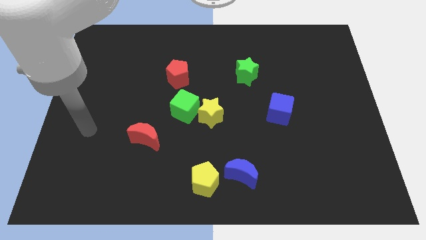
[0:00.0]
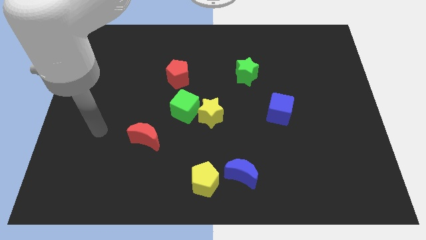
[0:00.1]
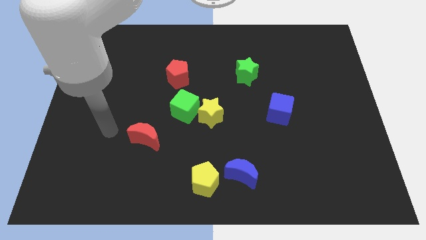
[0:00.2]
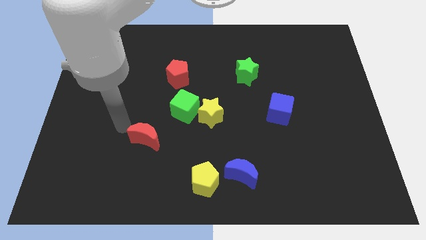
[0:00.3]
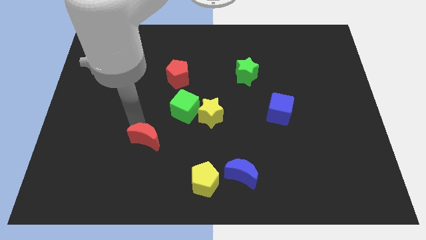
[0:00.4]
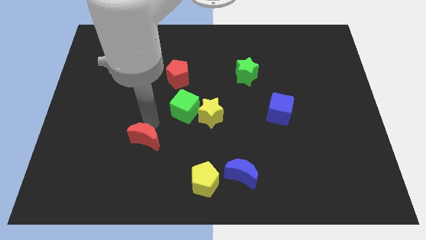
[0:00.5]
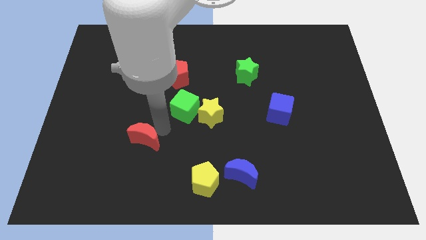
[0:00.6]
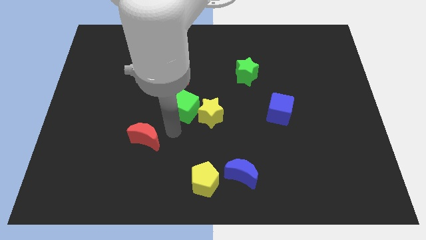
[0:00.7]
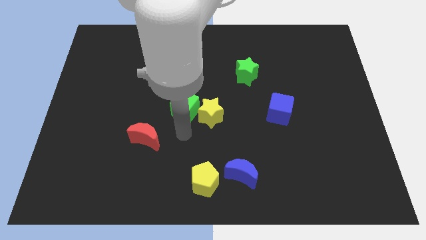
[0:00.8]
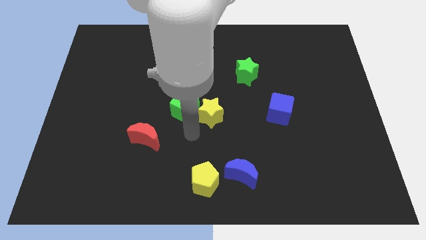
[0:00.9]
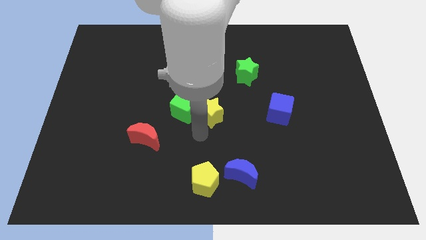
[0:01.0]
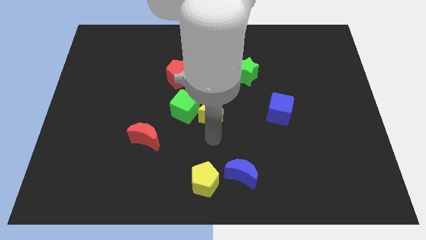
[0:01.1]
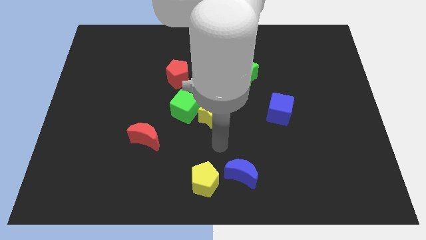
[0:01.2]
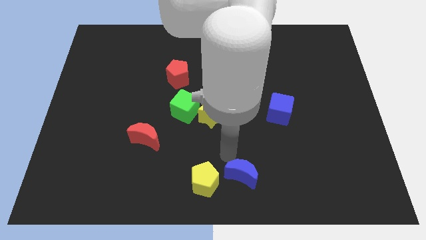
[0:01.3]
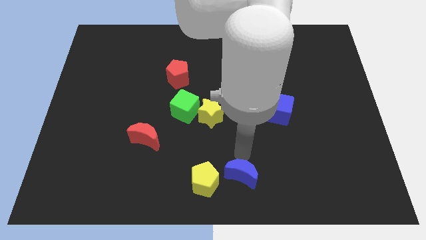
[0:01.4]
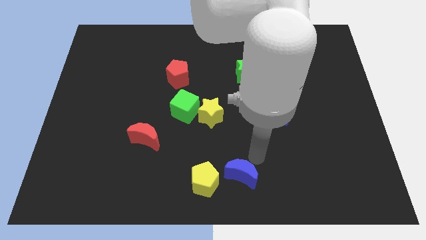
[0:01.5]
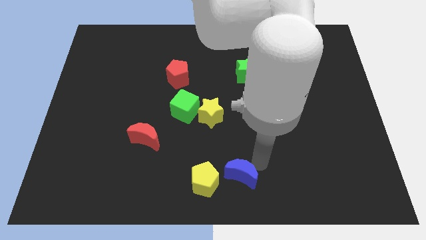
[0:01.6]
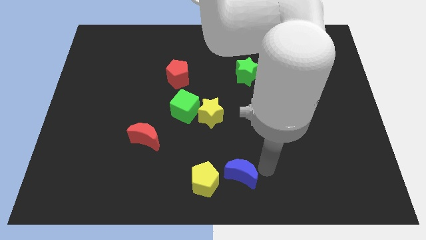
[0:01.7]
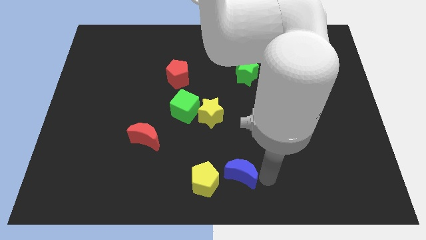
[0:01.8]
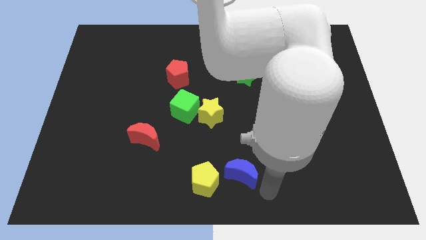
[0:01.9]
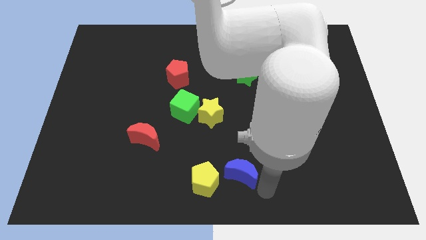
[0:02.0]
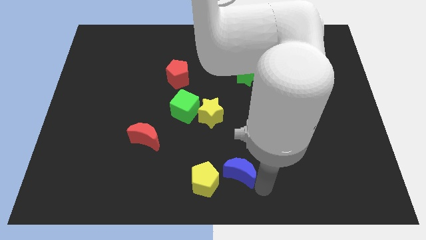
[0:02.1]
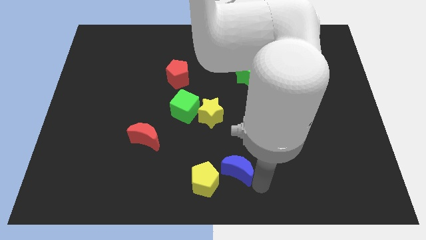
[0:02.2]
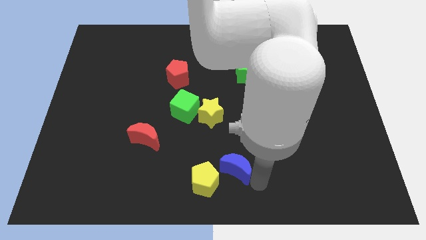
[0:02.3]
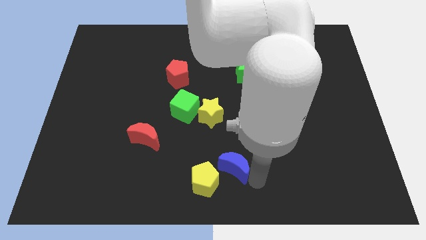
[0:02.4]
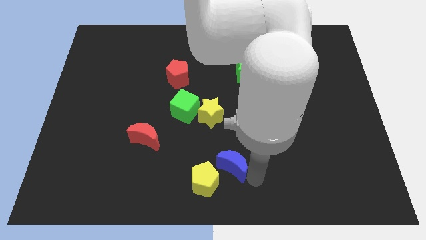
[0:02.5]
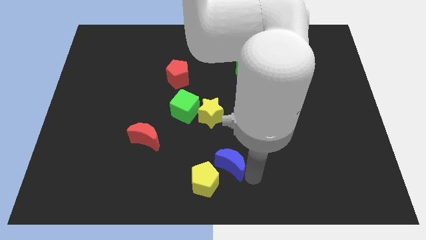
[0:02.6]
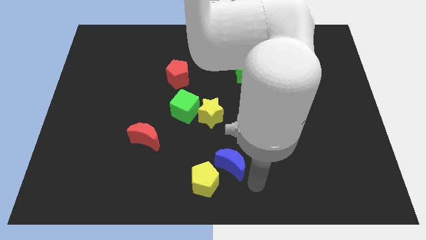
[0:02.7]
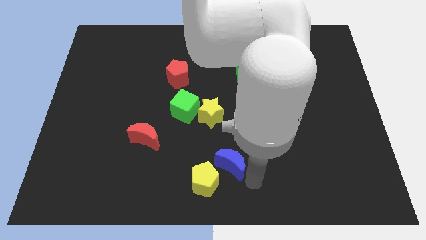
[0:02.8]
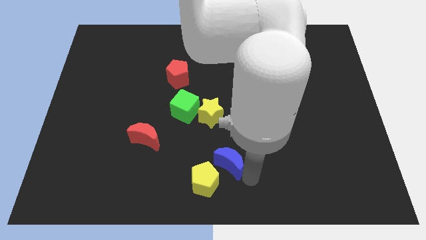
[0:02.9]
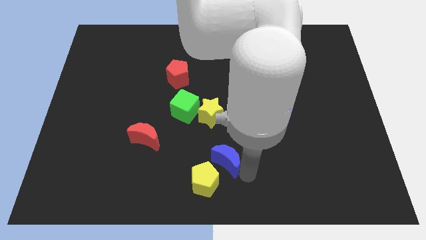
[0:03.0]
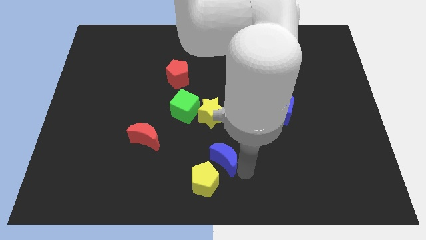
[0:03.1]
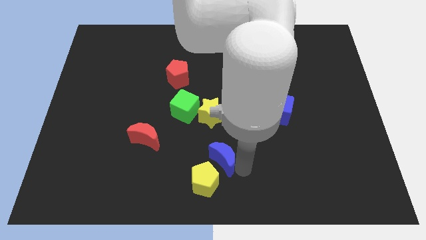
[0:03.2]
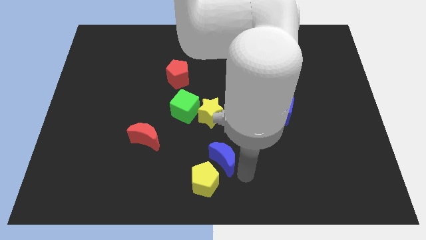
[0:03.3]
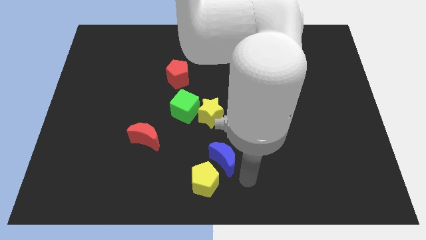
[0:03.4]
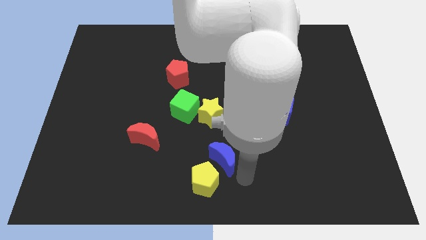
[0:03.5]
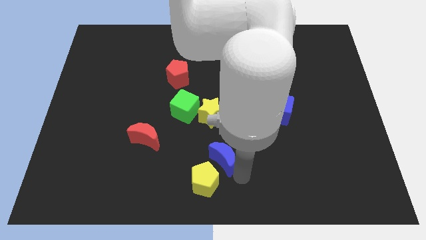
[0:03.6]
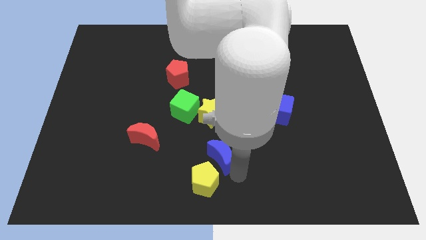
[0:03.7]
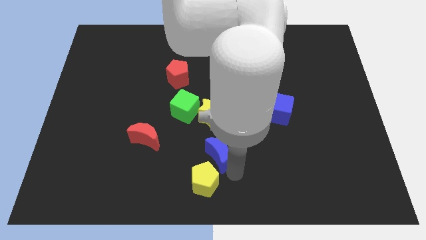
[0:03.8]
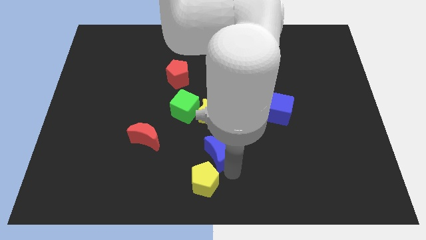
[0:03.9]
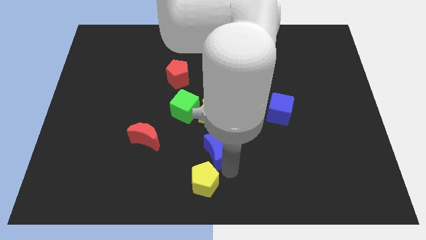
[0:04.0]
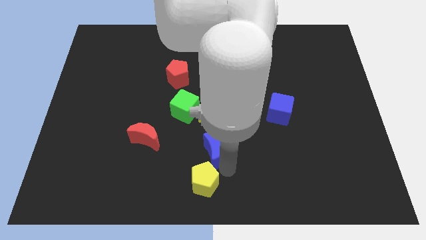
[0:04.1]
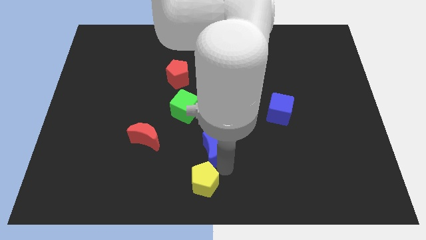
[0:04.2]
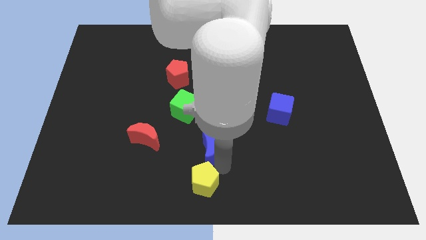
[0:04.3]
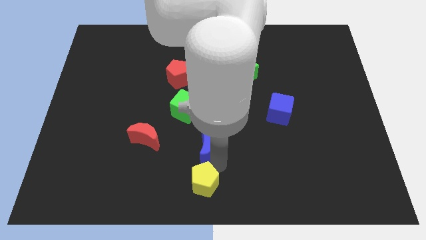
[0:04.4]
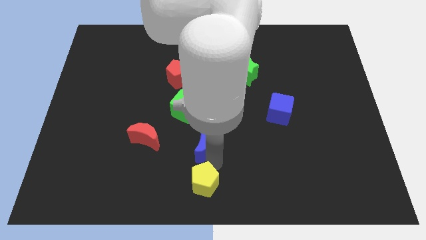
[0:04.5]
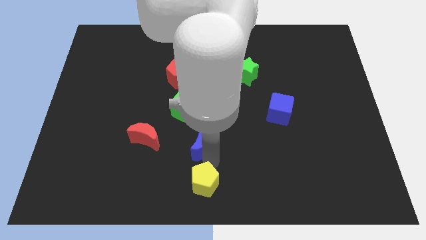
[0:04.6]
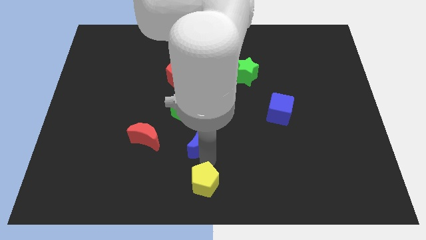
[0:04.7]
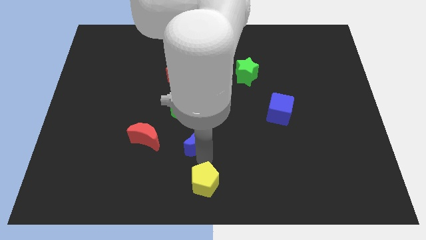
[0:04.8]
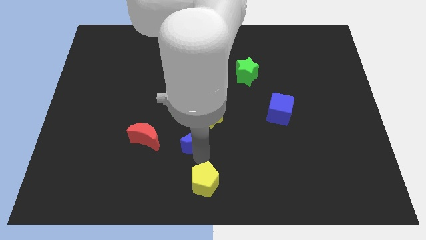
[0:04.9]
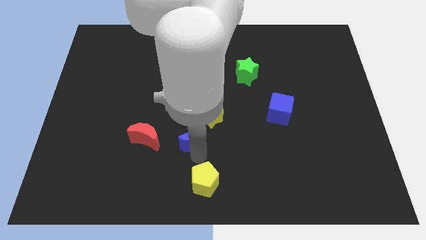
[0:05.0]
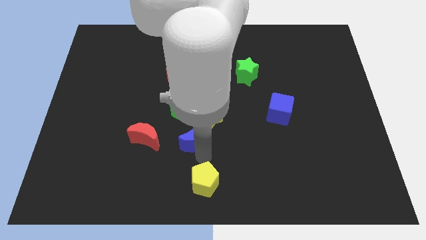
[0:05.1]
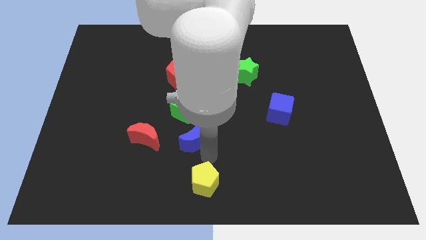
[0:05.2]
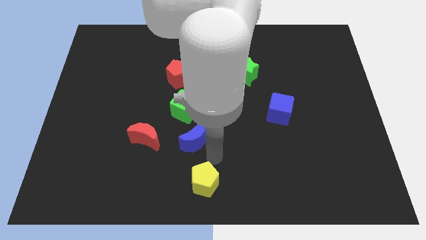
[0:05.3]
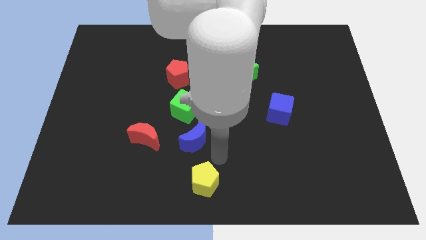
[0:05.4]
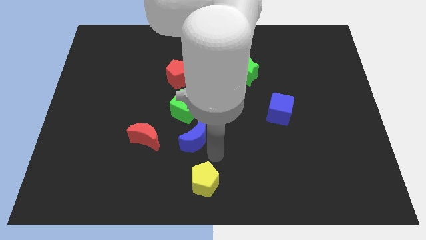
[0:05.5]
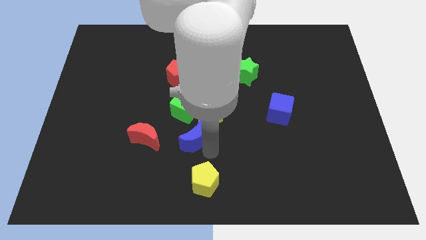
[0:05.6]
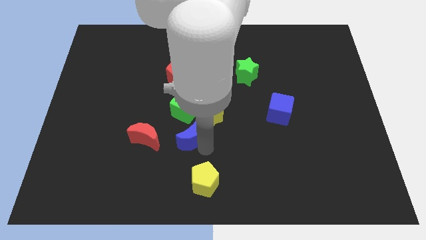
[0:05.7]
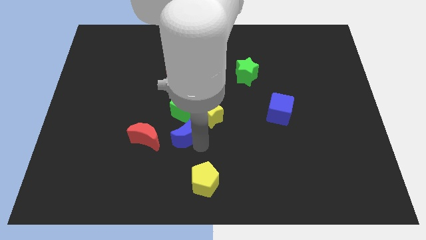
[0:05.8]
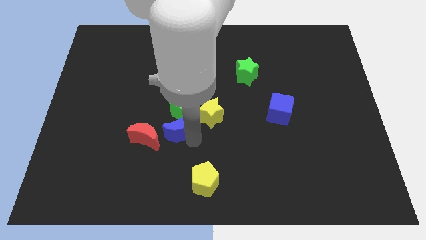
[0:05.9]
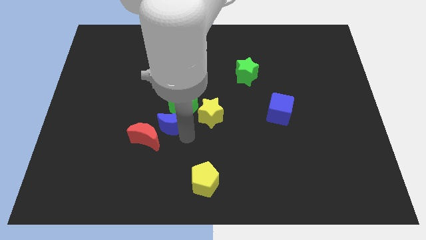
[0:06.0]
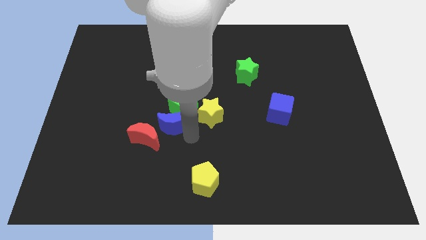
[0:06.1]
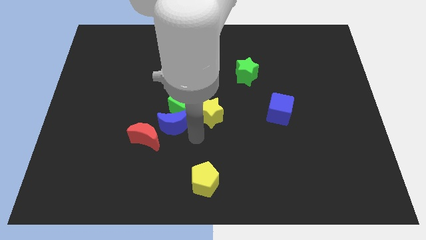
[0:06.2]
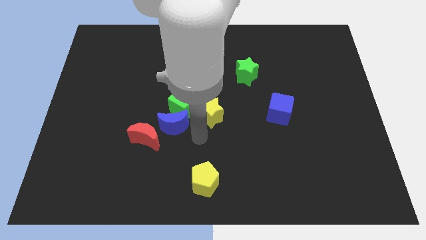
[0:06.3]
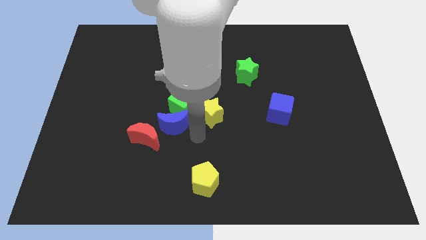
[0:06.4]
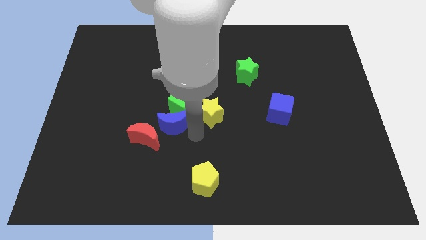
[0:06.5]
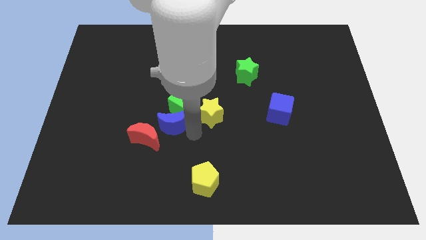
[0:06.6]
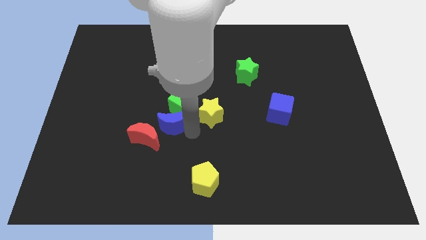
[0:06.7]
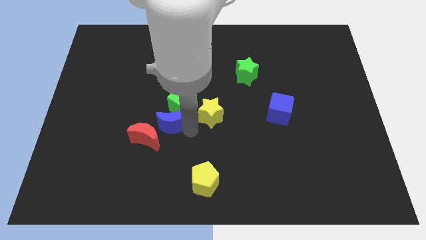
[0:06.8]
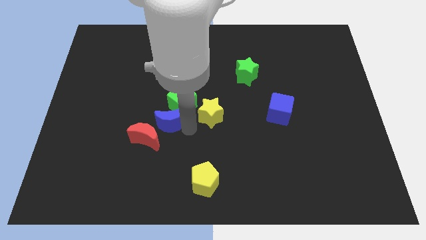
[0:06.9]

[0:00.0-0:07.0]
push the blue moon upwards and left

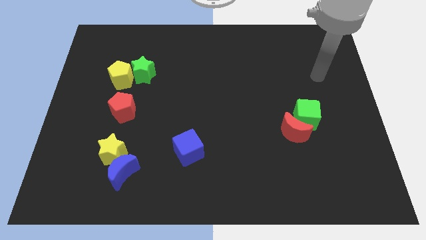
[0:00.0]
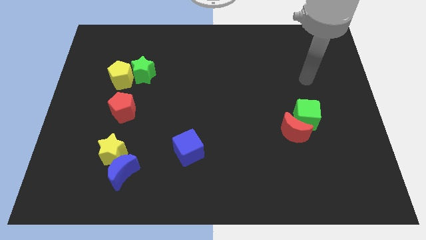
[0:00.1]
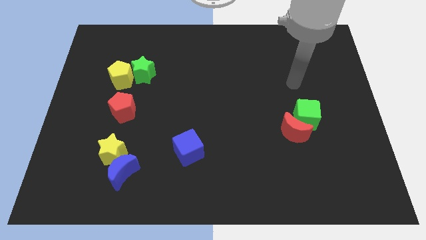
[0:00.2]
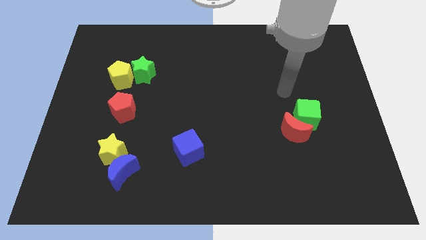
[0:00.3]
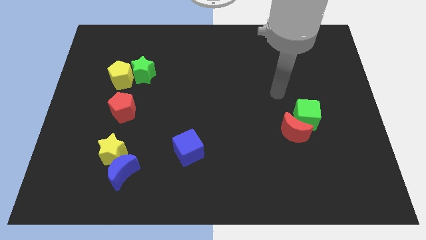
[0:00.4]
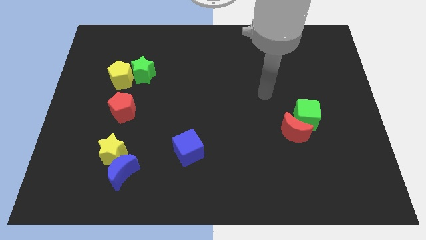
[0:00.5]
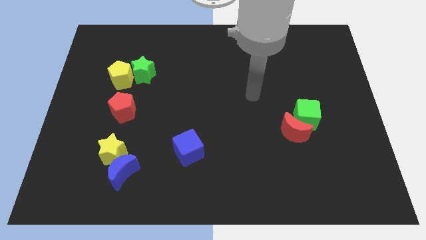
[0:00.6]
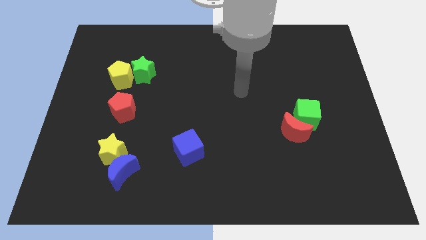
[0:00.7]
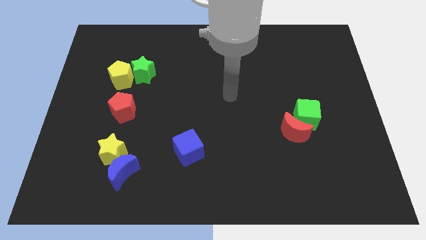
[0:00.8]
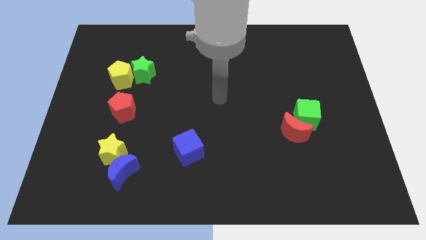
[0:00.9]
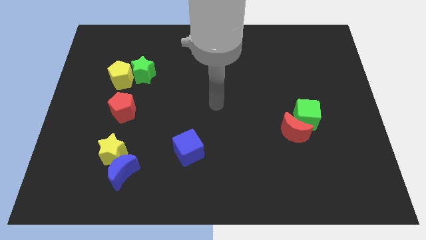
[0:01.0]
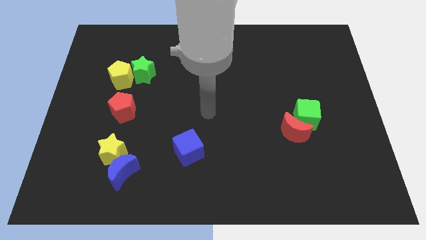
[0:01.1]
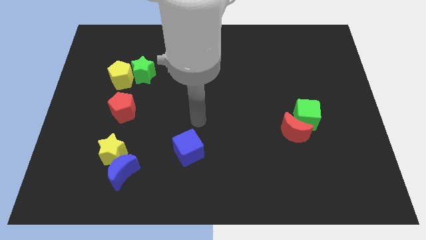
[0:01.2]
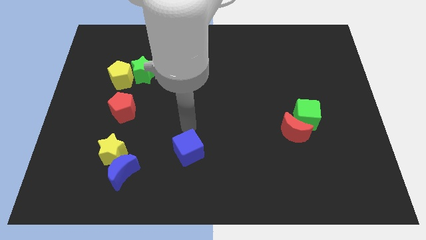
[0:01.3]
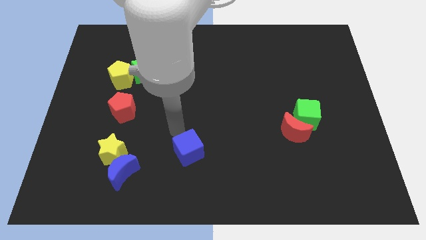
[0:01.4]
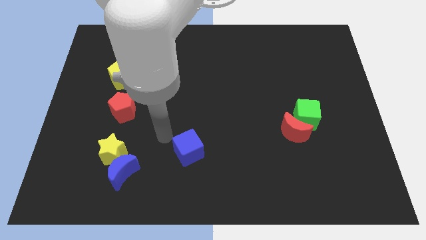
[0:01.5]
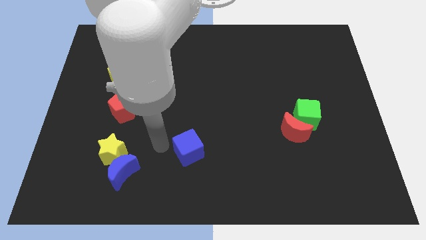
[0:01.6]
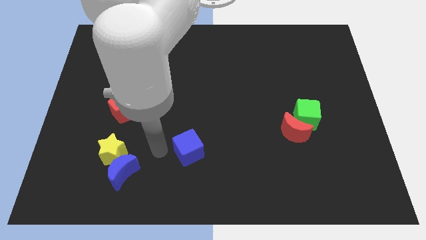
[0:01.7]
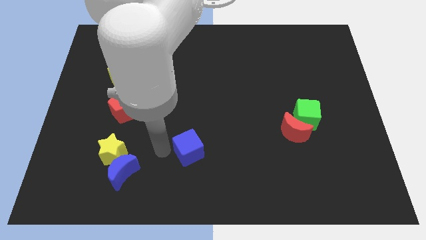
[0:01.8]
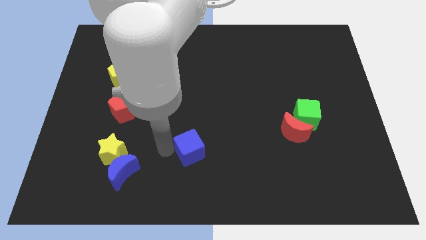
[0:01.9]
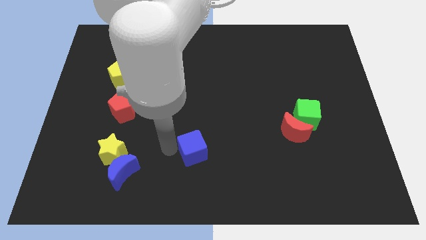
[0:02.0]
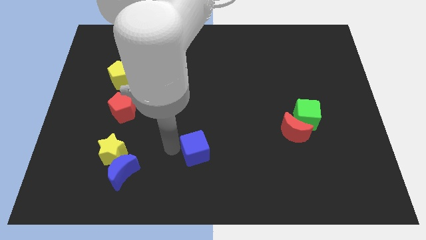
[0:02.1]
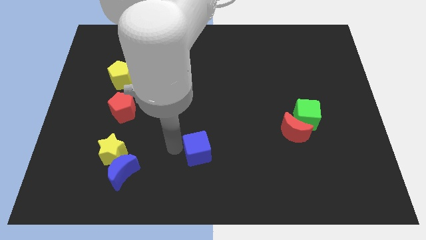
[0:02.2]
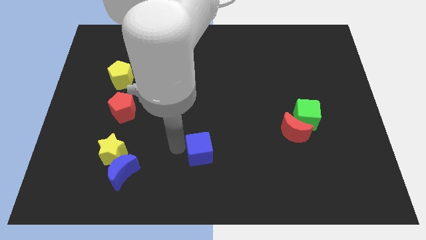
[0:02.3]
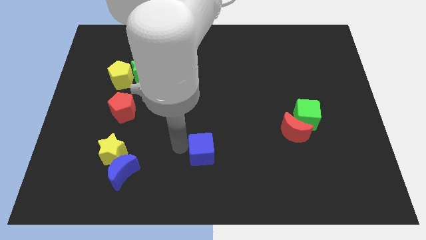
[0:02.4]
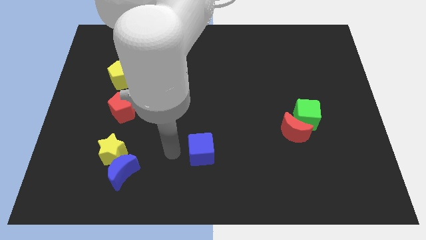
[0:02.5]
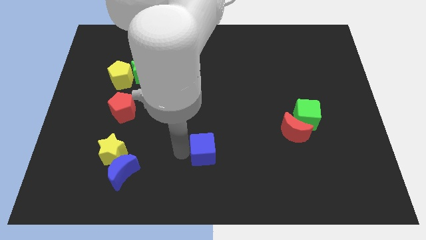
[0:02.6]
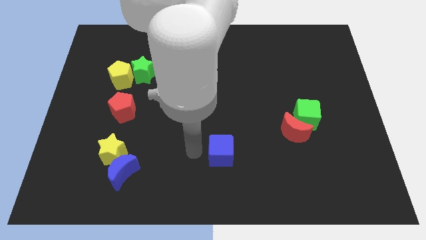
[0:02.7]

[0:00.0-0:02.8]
slide the blue cube a bit right
